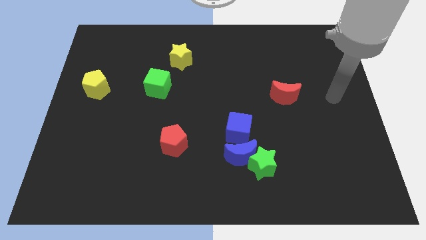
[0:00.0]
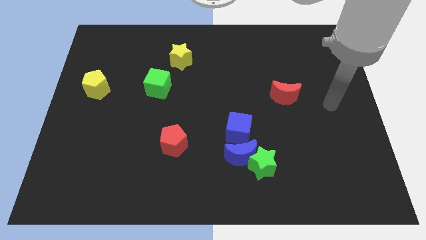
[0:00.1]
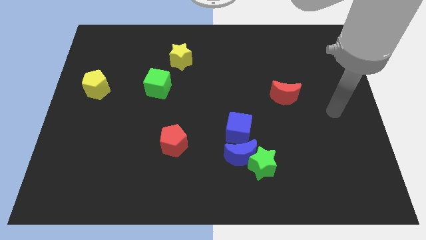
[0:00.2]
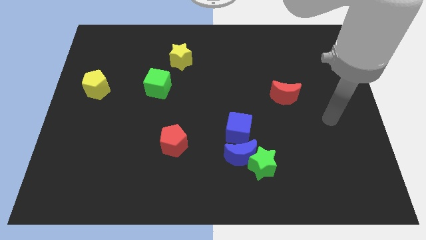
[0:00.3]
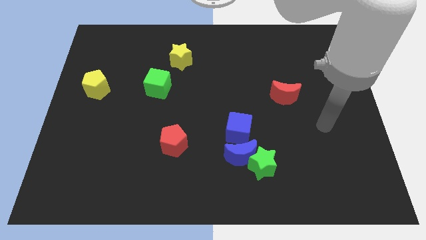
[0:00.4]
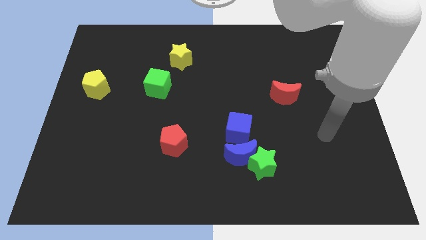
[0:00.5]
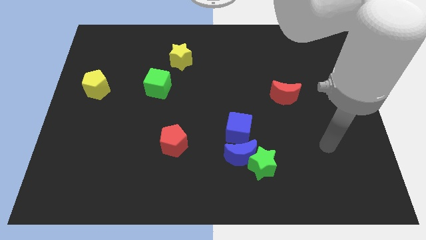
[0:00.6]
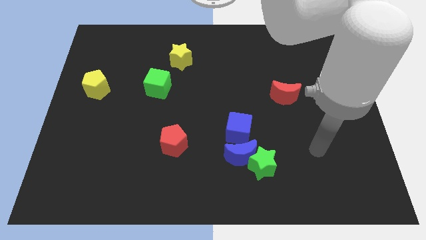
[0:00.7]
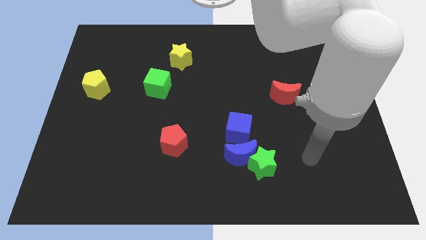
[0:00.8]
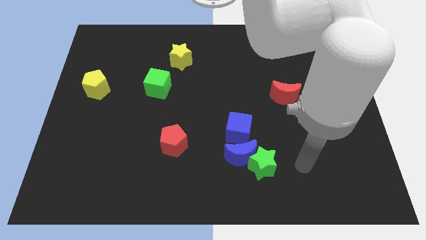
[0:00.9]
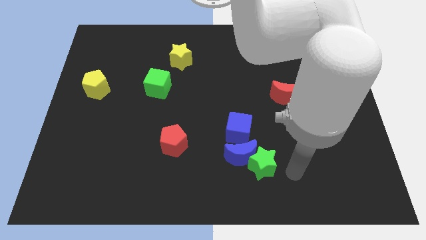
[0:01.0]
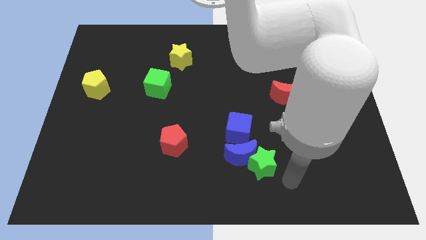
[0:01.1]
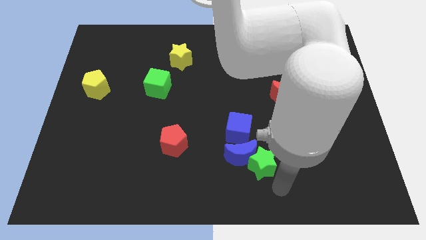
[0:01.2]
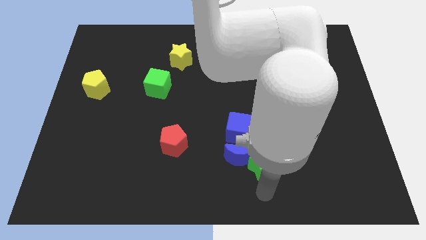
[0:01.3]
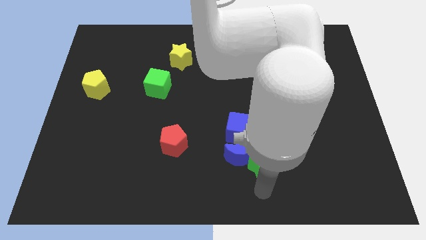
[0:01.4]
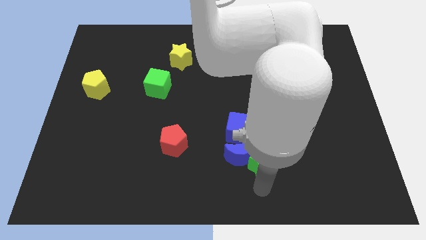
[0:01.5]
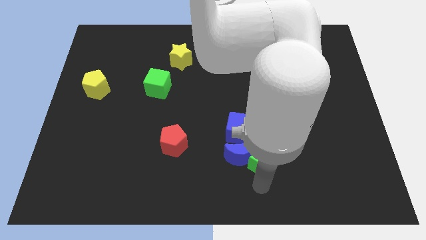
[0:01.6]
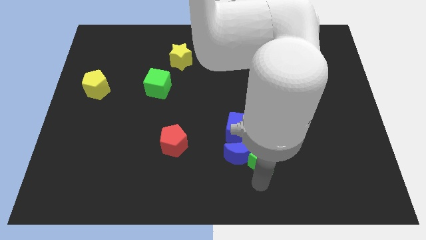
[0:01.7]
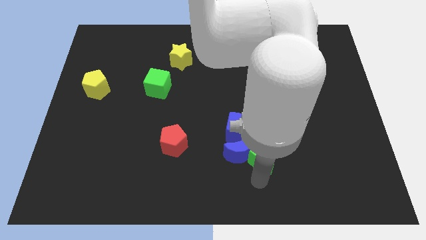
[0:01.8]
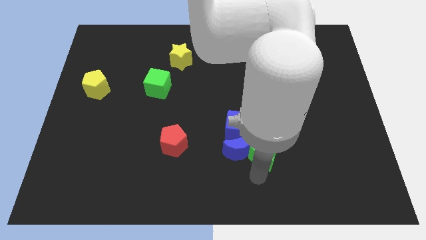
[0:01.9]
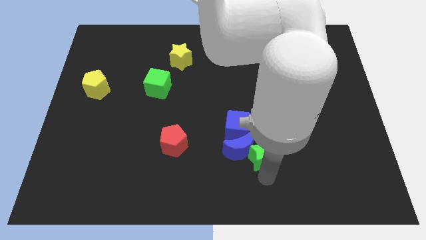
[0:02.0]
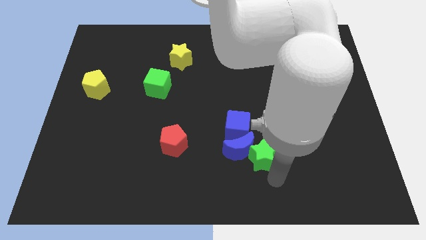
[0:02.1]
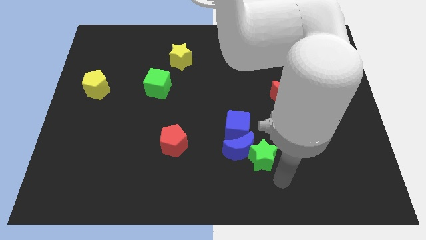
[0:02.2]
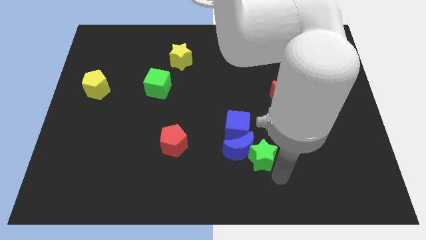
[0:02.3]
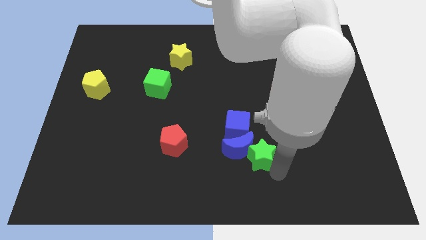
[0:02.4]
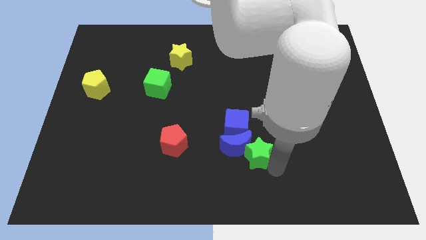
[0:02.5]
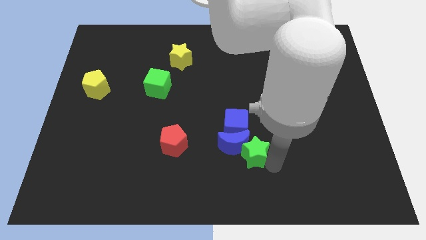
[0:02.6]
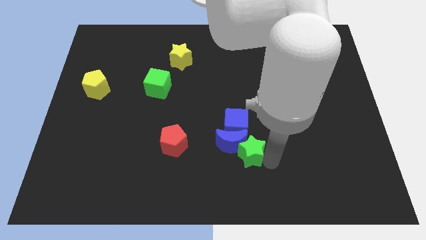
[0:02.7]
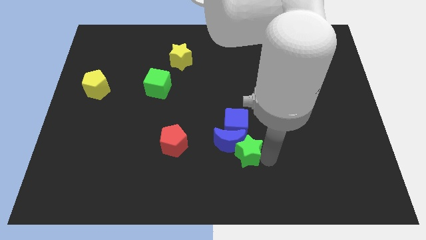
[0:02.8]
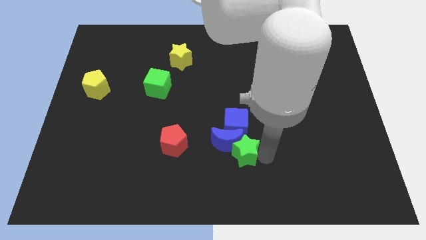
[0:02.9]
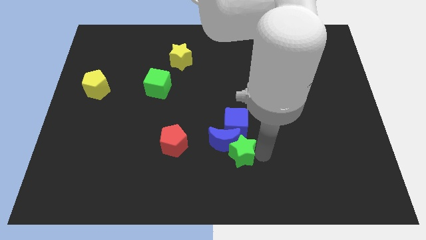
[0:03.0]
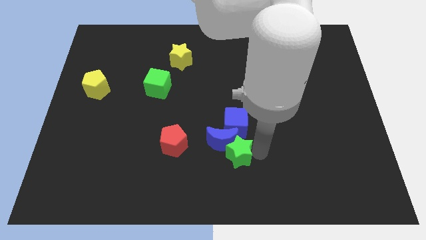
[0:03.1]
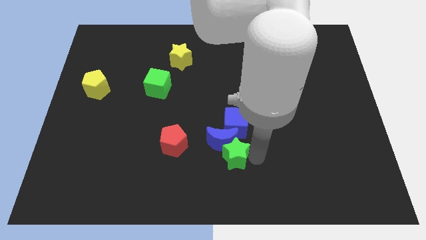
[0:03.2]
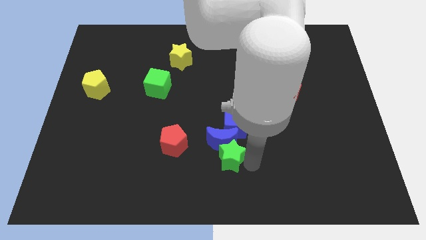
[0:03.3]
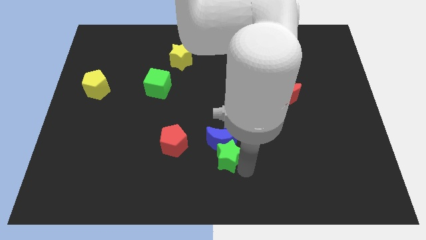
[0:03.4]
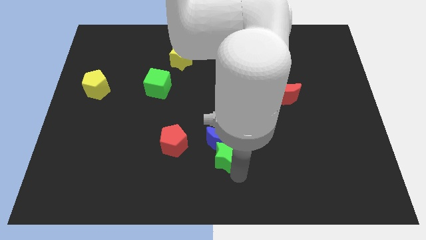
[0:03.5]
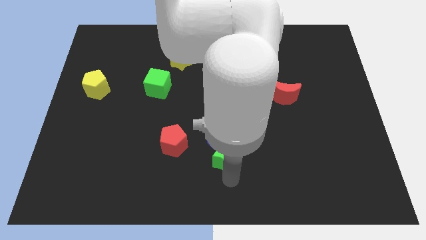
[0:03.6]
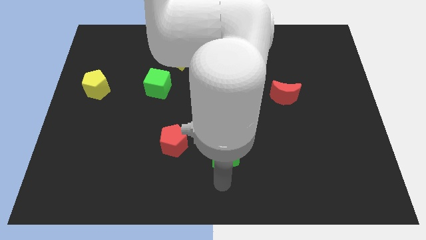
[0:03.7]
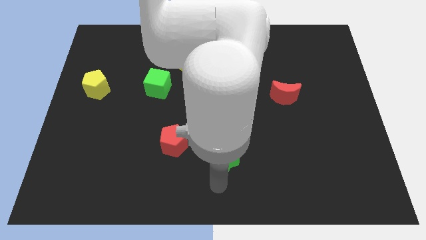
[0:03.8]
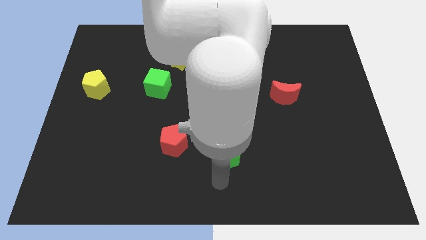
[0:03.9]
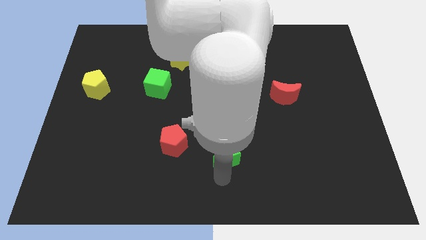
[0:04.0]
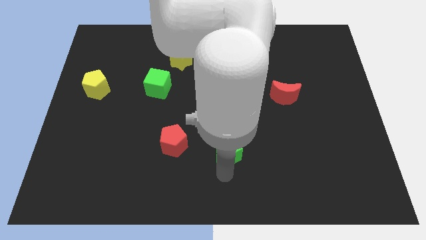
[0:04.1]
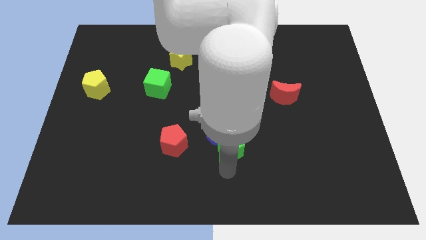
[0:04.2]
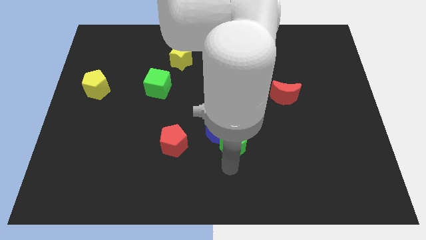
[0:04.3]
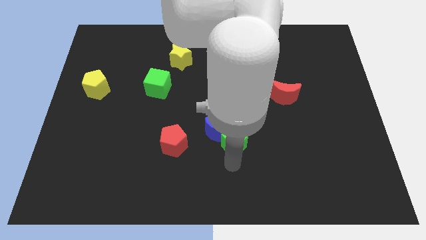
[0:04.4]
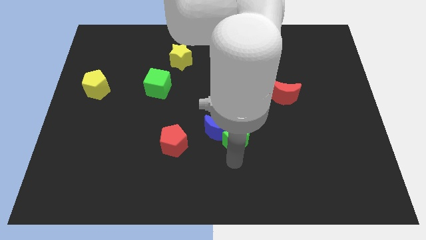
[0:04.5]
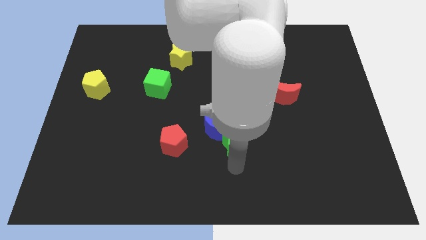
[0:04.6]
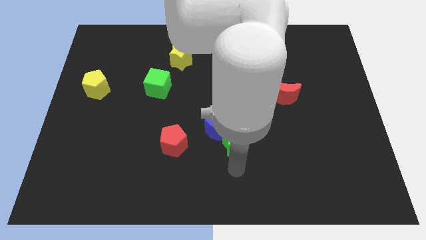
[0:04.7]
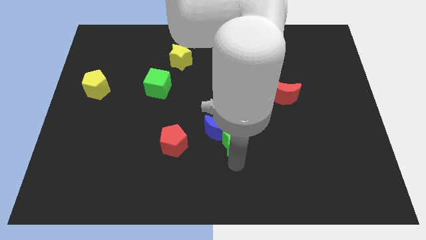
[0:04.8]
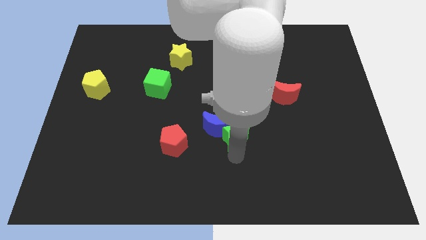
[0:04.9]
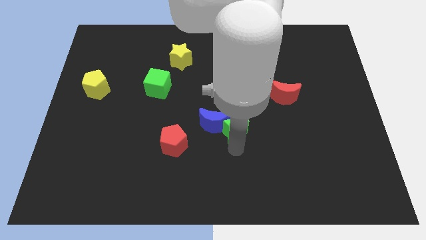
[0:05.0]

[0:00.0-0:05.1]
slide the green star close to the blue cube

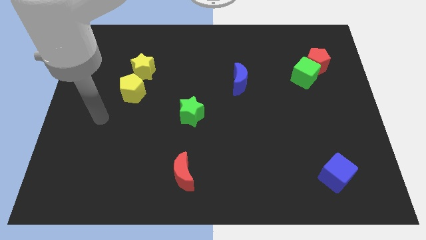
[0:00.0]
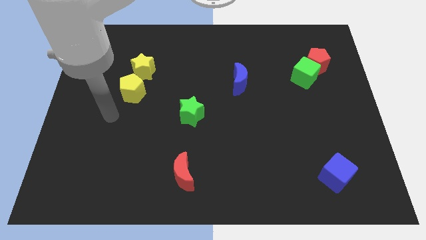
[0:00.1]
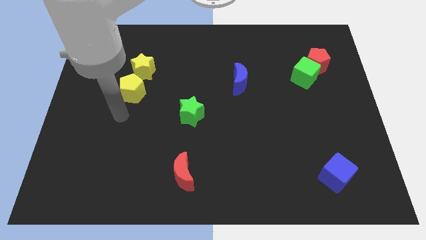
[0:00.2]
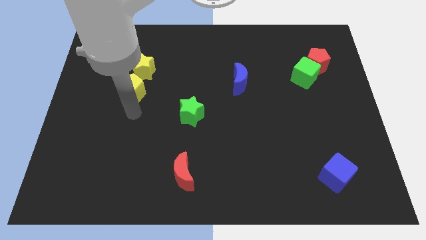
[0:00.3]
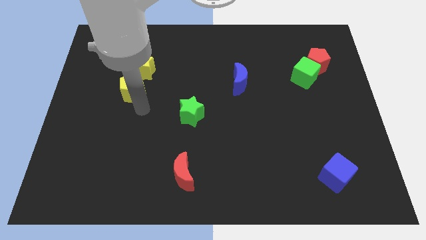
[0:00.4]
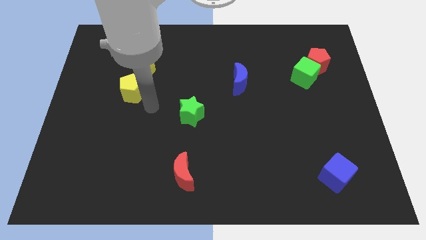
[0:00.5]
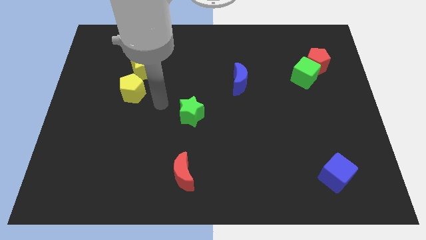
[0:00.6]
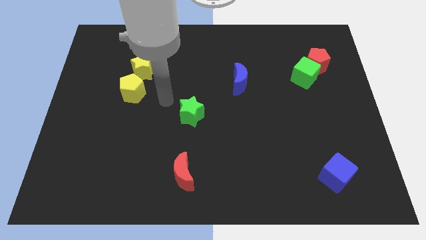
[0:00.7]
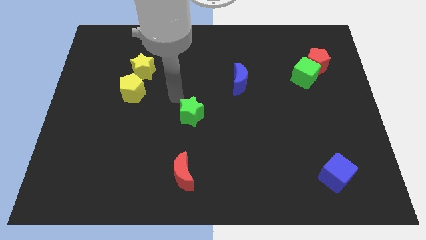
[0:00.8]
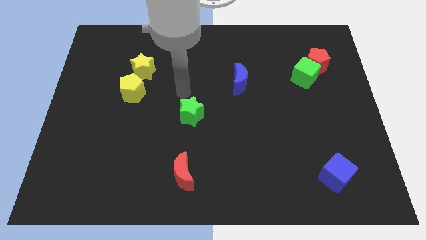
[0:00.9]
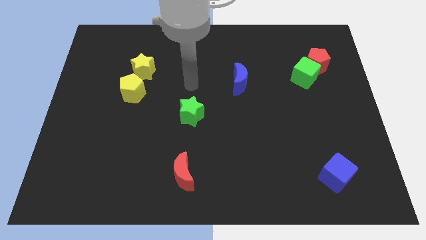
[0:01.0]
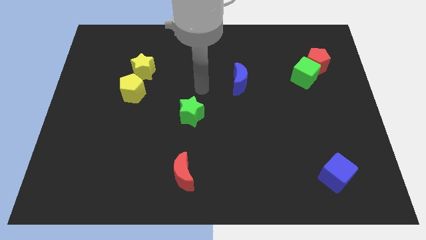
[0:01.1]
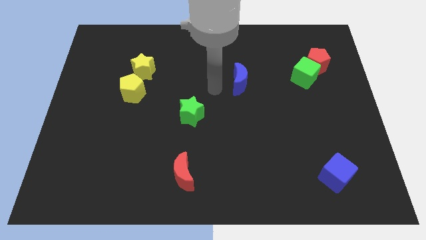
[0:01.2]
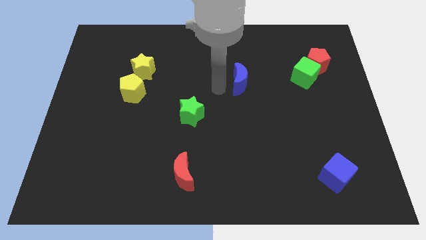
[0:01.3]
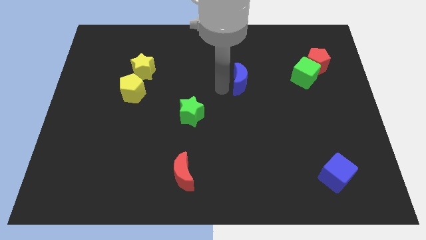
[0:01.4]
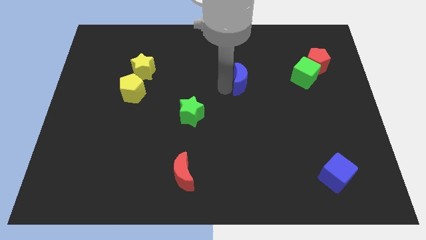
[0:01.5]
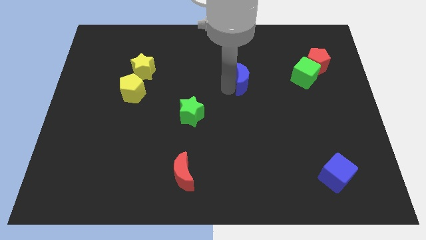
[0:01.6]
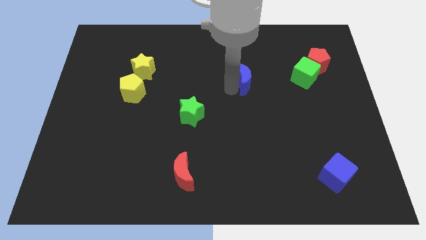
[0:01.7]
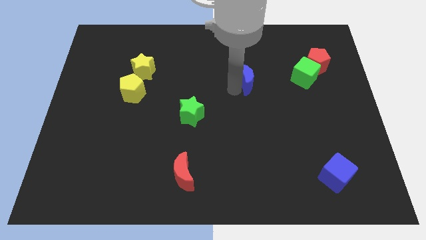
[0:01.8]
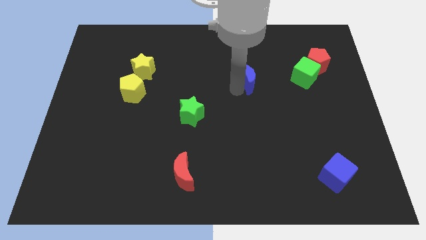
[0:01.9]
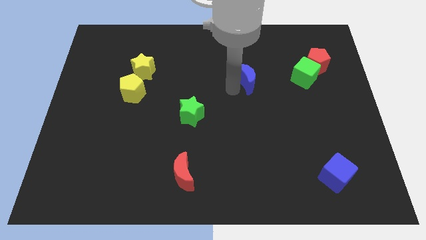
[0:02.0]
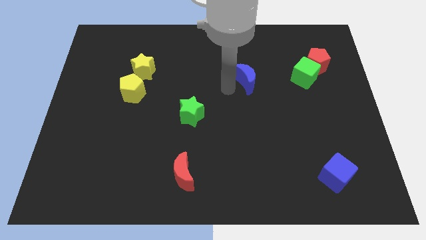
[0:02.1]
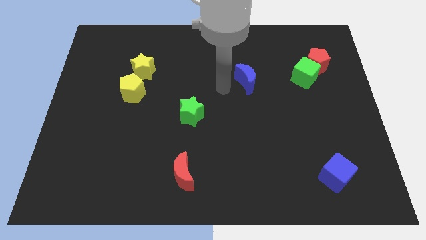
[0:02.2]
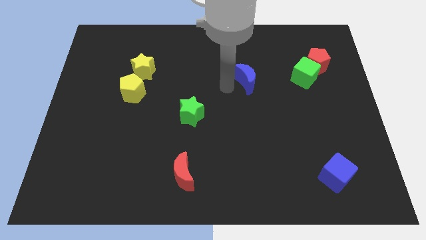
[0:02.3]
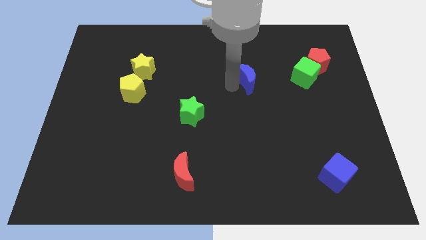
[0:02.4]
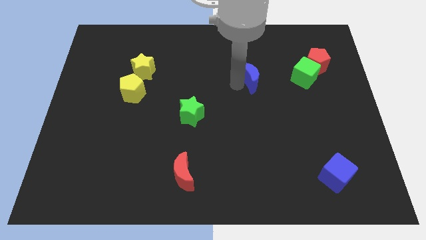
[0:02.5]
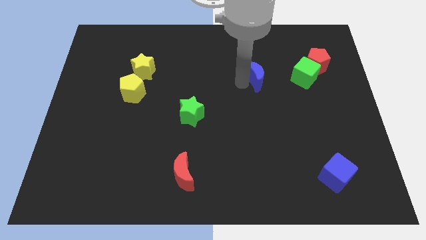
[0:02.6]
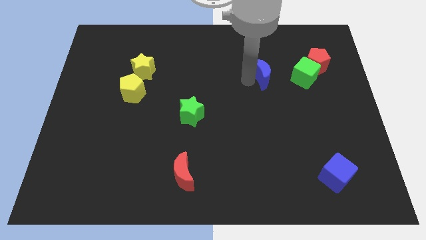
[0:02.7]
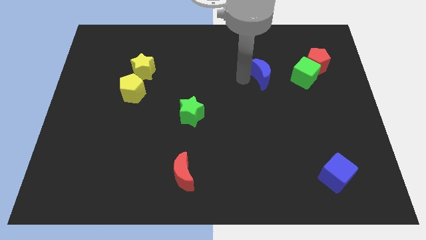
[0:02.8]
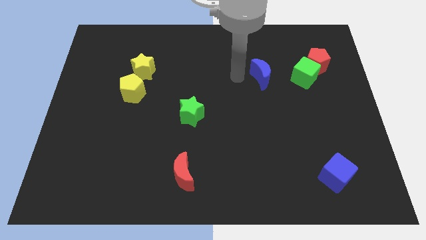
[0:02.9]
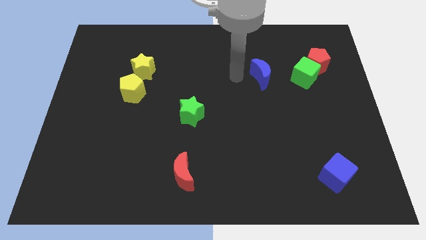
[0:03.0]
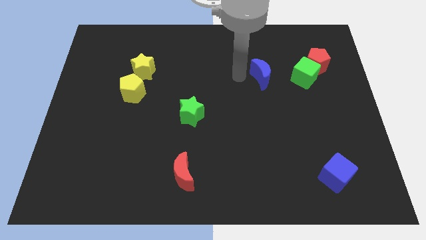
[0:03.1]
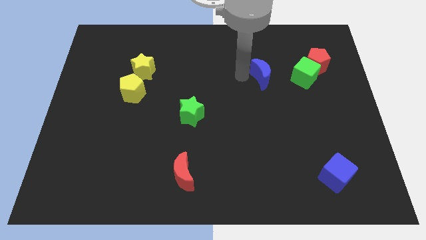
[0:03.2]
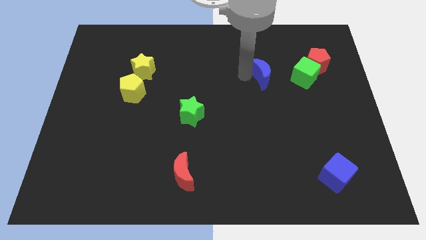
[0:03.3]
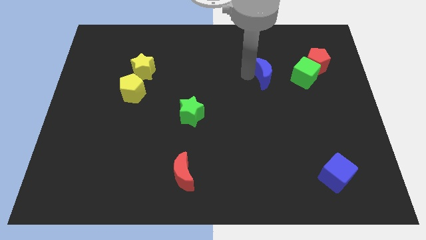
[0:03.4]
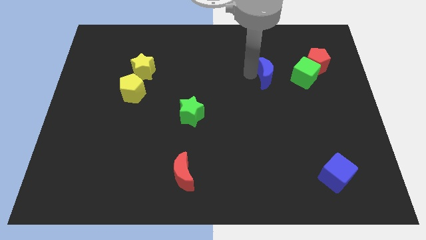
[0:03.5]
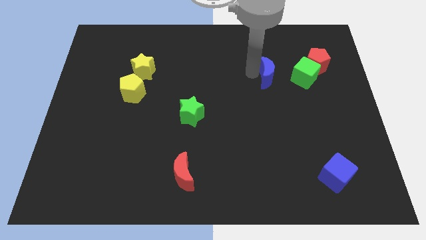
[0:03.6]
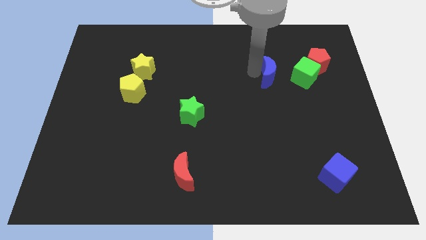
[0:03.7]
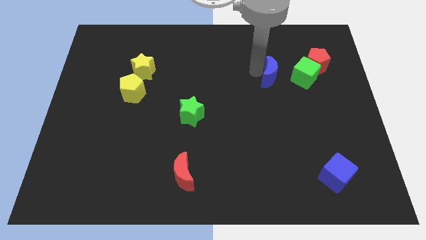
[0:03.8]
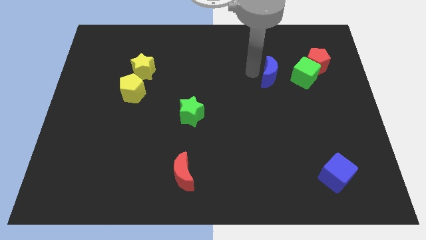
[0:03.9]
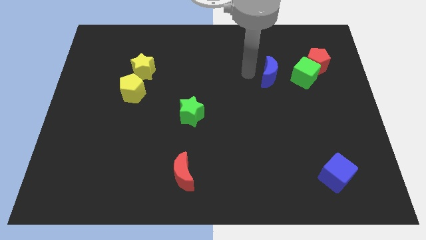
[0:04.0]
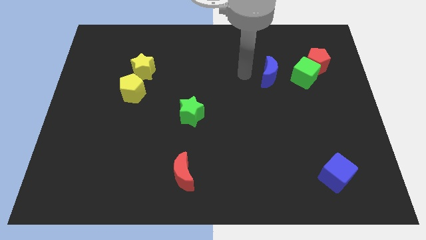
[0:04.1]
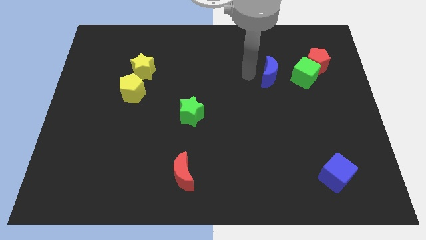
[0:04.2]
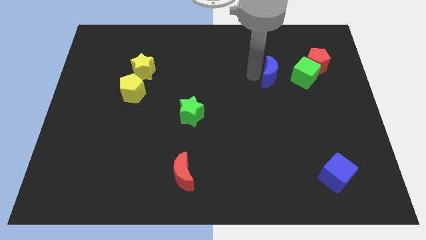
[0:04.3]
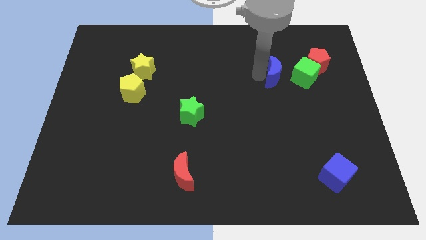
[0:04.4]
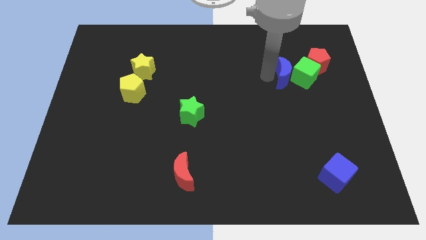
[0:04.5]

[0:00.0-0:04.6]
slide the blue moon close to the green cube
